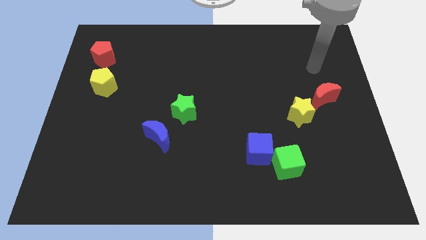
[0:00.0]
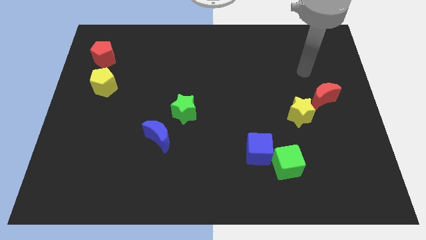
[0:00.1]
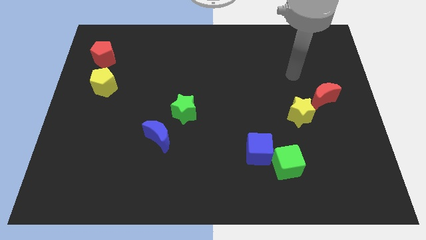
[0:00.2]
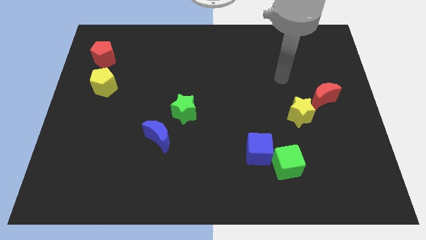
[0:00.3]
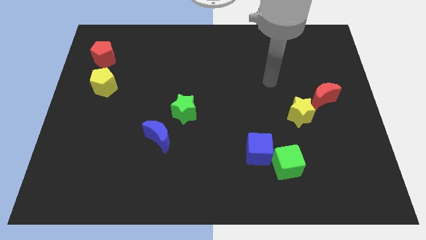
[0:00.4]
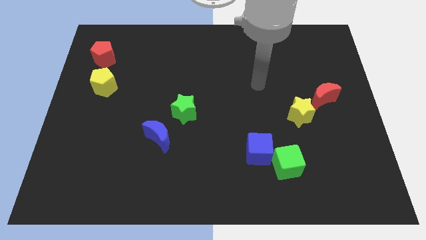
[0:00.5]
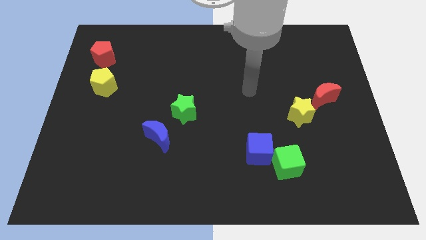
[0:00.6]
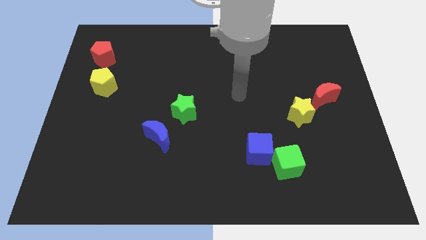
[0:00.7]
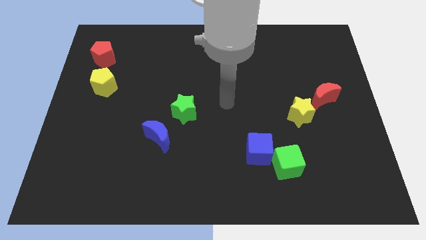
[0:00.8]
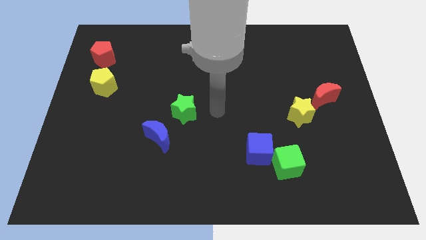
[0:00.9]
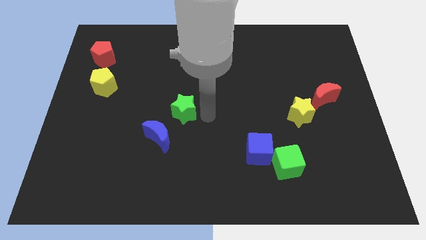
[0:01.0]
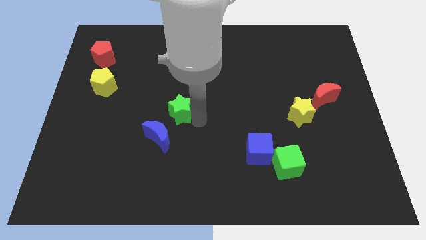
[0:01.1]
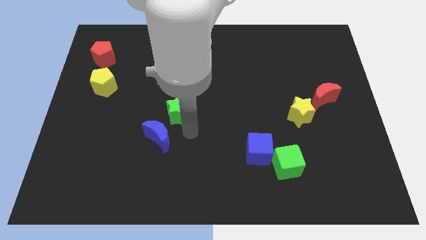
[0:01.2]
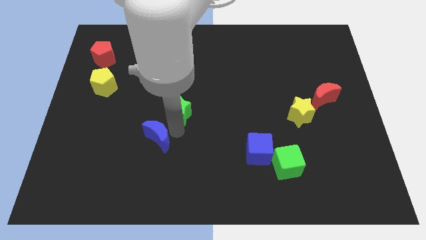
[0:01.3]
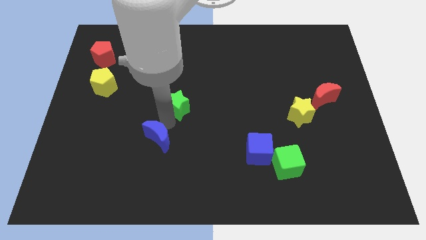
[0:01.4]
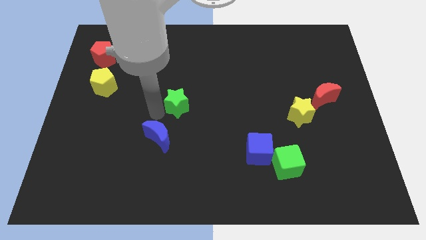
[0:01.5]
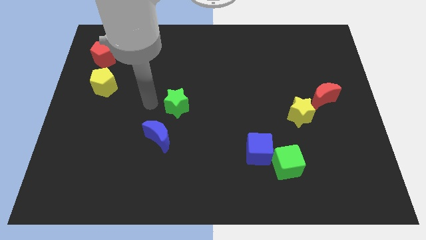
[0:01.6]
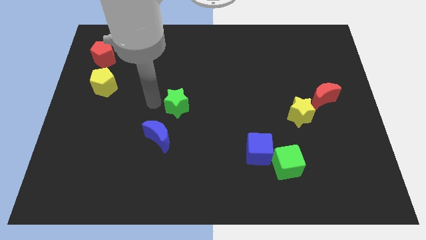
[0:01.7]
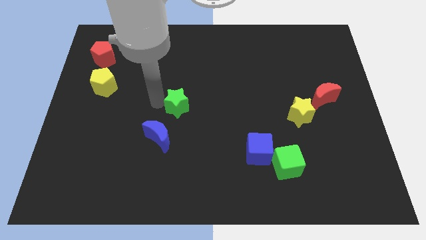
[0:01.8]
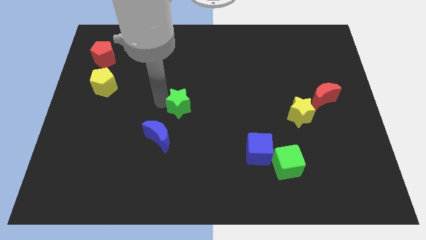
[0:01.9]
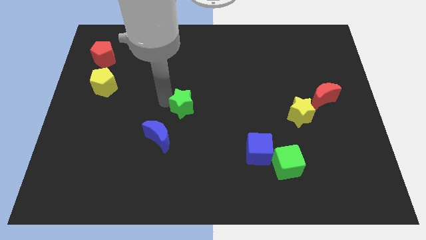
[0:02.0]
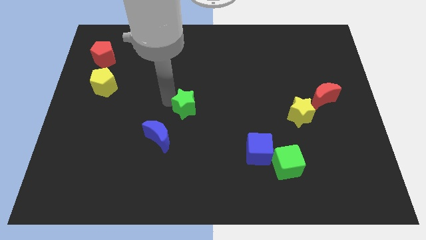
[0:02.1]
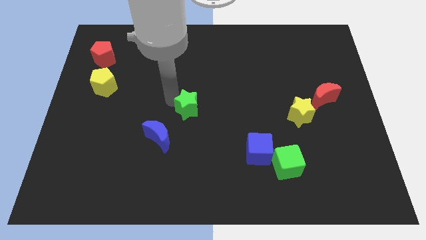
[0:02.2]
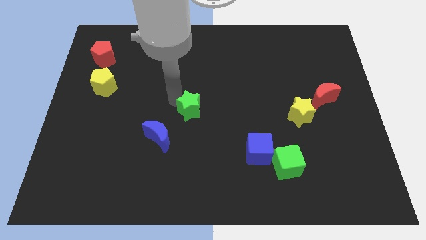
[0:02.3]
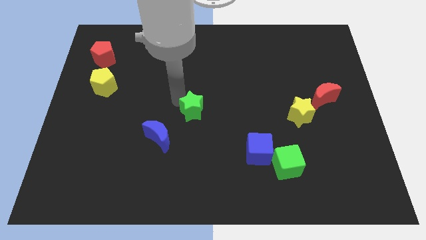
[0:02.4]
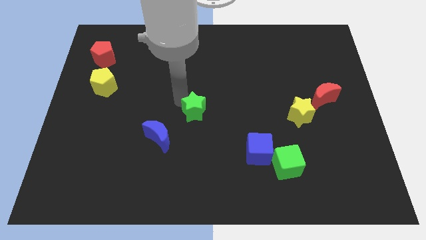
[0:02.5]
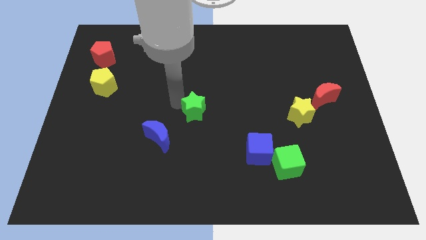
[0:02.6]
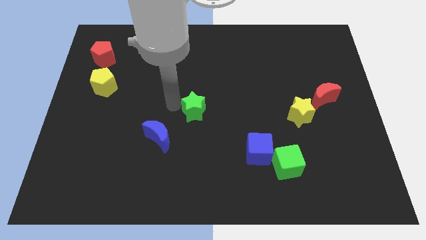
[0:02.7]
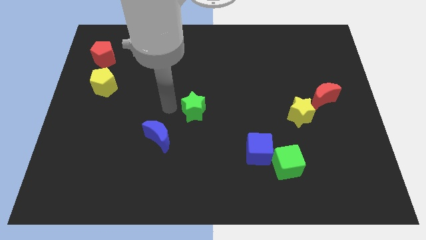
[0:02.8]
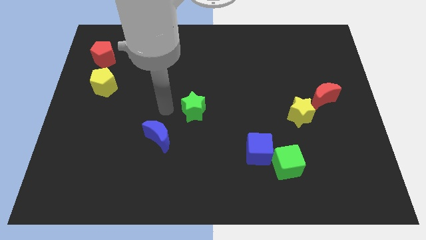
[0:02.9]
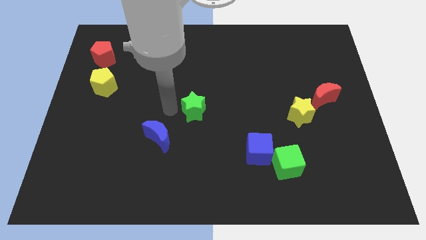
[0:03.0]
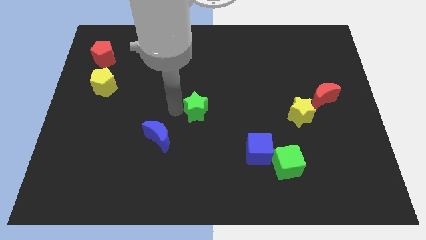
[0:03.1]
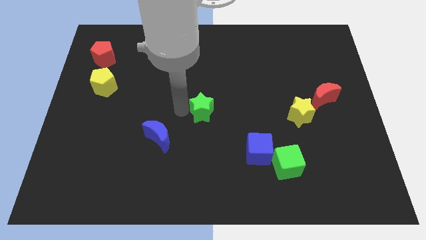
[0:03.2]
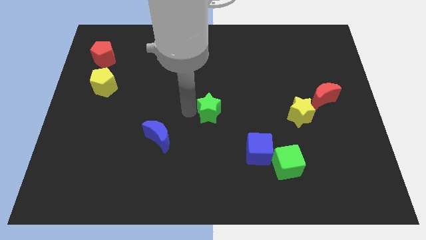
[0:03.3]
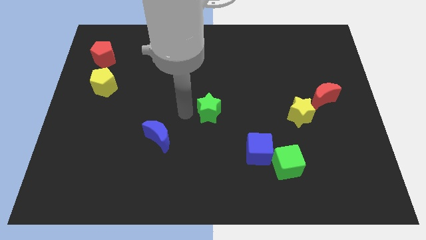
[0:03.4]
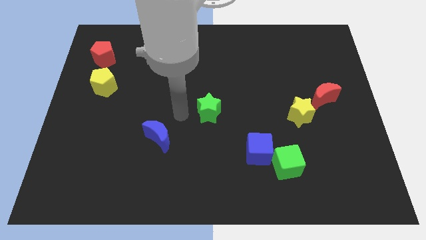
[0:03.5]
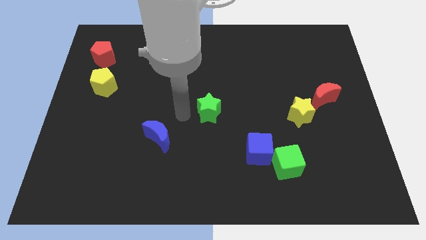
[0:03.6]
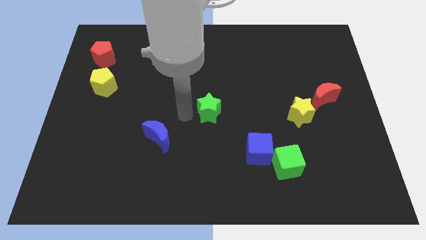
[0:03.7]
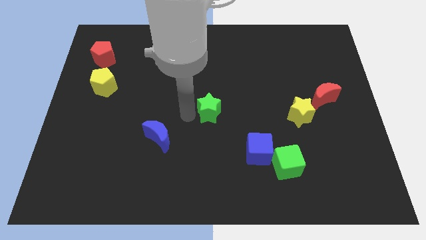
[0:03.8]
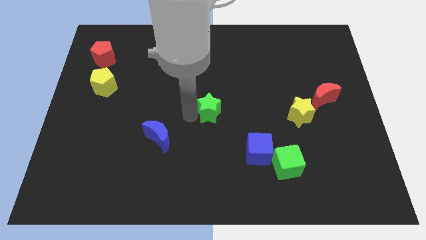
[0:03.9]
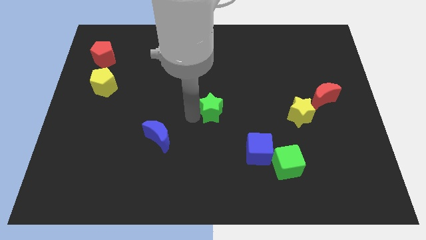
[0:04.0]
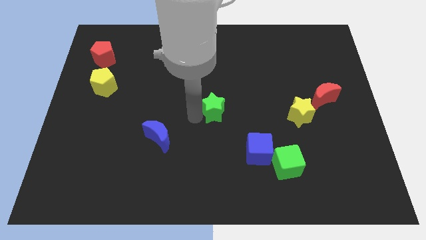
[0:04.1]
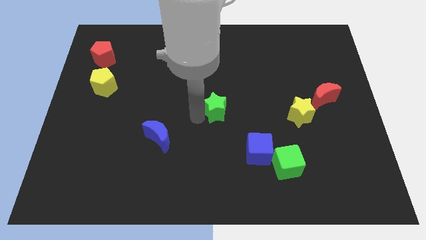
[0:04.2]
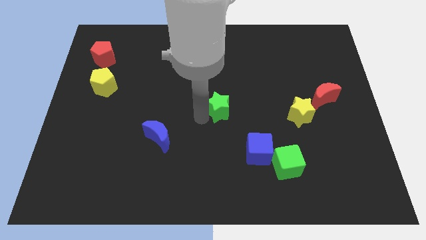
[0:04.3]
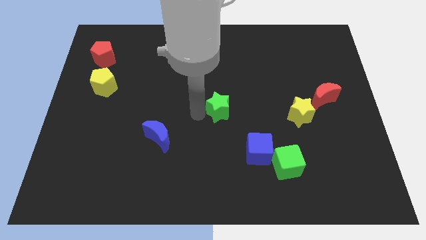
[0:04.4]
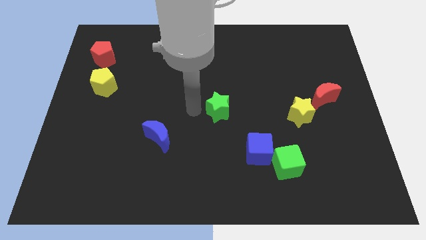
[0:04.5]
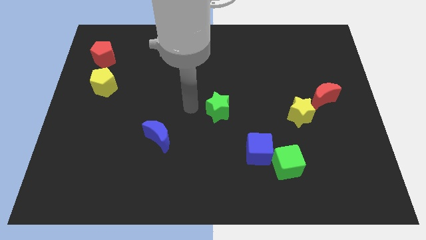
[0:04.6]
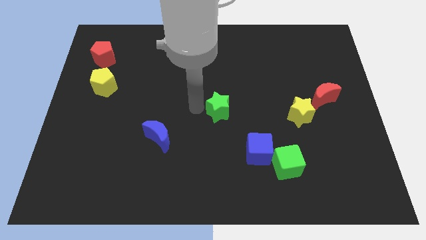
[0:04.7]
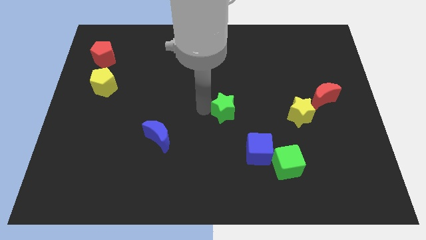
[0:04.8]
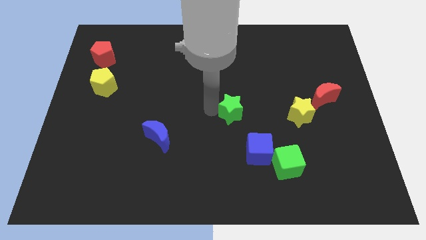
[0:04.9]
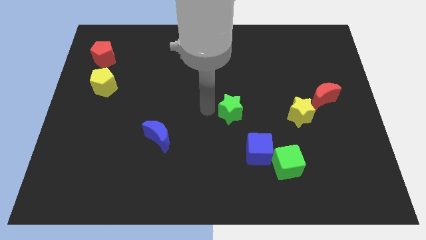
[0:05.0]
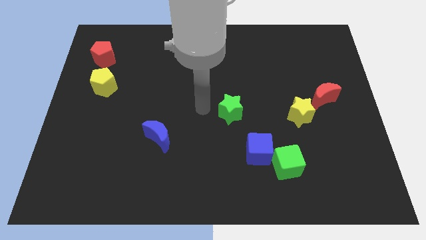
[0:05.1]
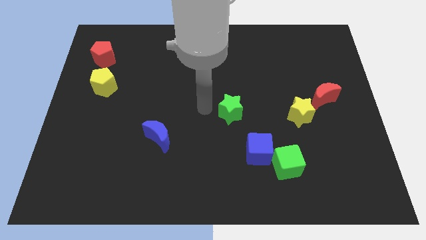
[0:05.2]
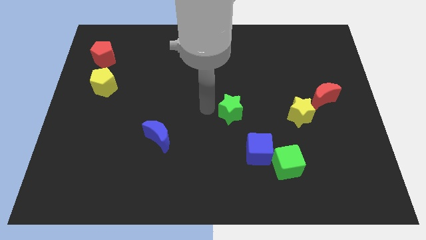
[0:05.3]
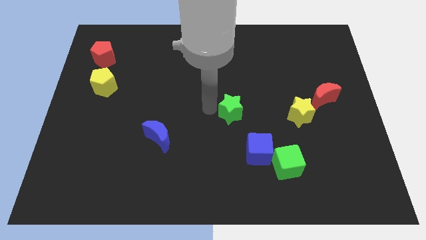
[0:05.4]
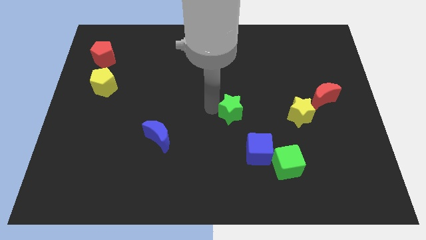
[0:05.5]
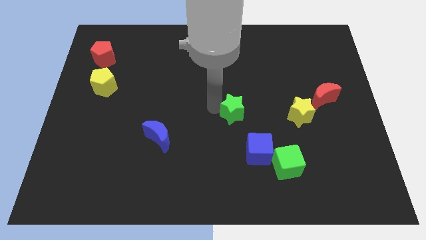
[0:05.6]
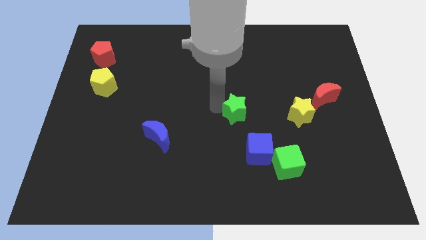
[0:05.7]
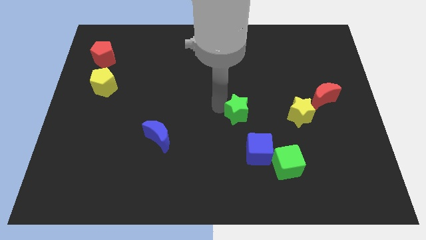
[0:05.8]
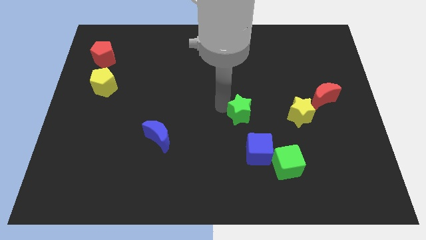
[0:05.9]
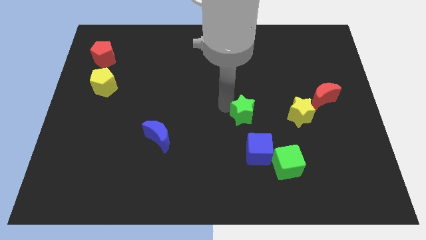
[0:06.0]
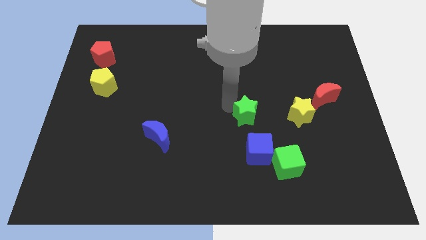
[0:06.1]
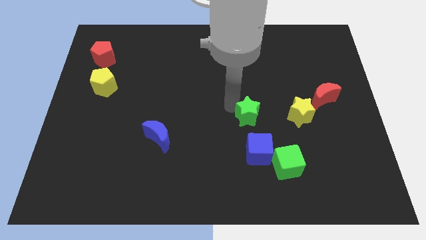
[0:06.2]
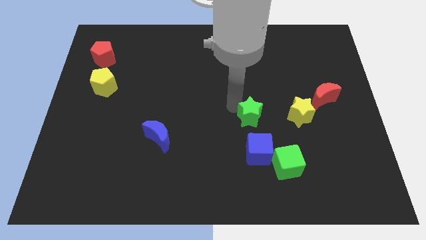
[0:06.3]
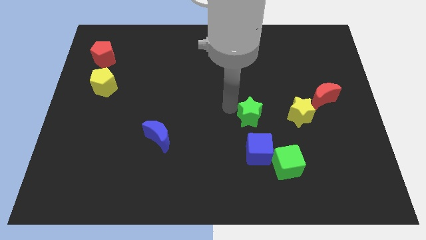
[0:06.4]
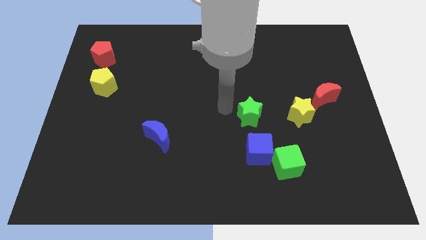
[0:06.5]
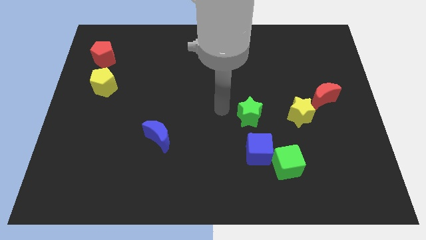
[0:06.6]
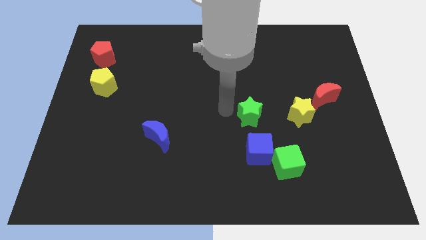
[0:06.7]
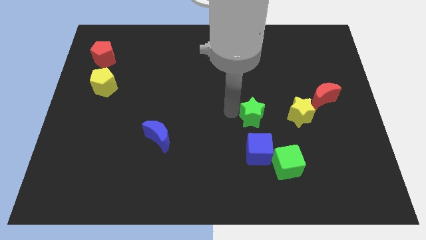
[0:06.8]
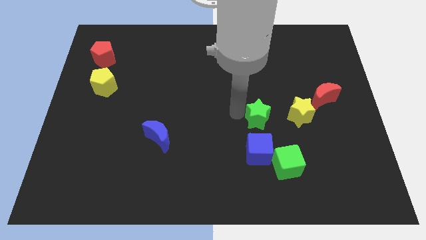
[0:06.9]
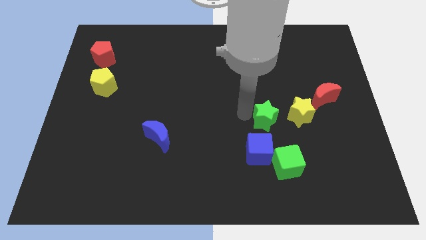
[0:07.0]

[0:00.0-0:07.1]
push the green star diagonally down and to the left of the yellow star

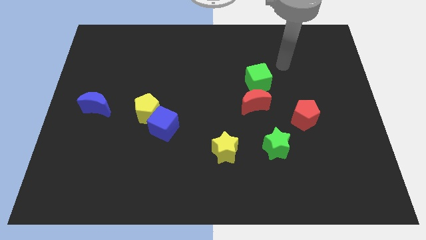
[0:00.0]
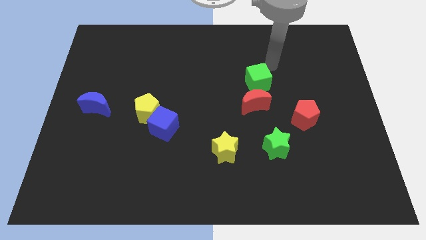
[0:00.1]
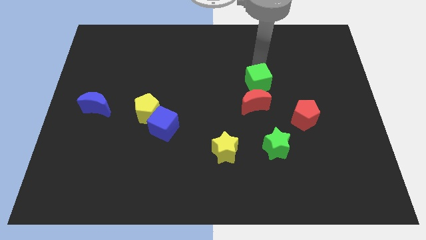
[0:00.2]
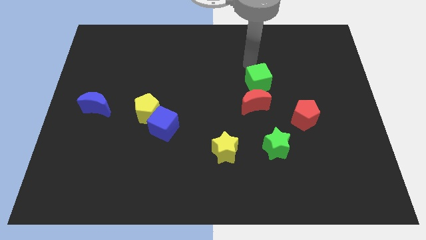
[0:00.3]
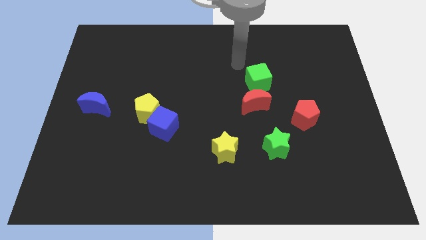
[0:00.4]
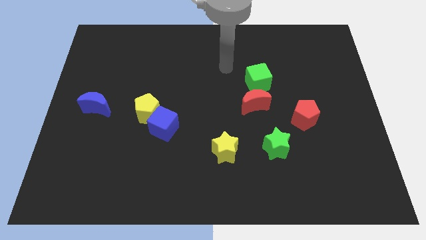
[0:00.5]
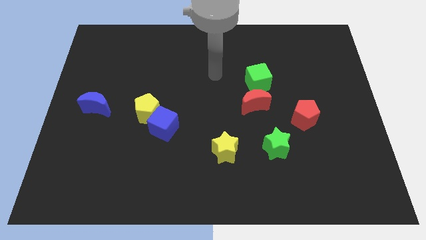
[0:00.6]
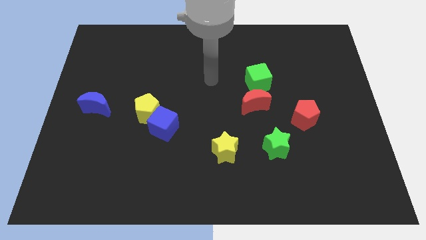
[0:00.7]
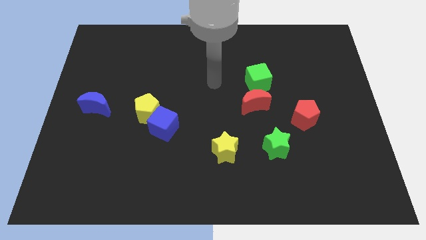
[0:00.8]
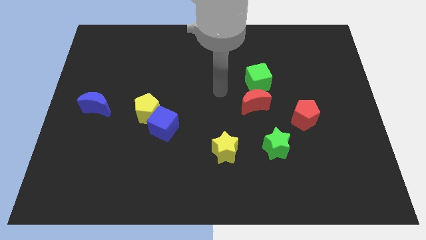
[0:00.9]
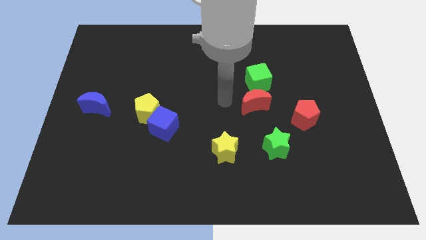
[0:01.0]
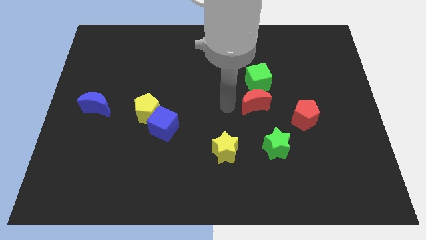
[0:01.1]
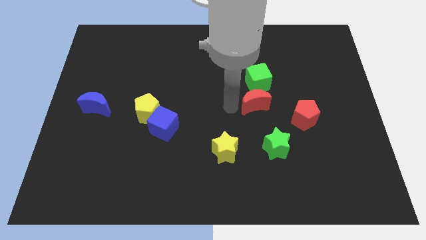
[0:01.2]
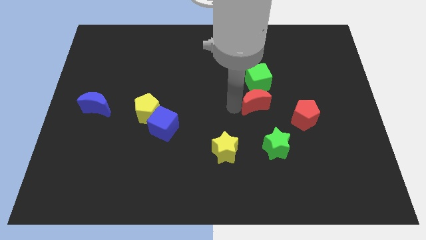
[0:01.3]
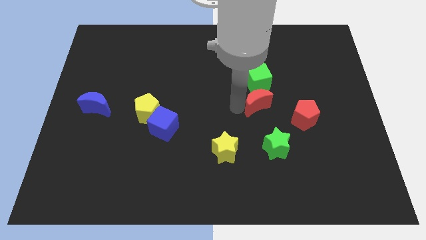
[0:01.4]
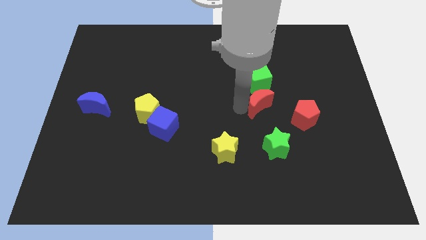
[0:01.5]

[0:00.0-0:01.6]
push the red moon diagonally up and to the left of the red pentagon
